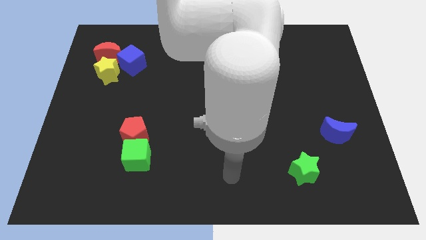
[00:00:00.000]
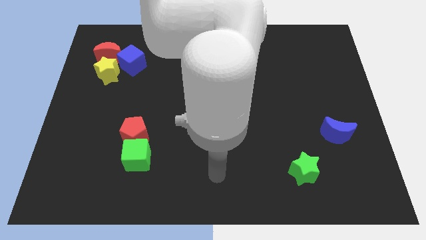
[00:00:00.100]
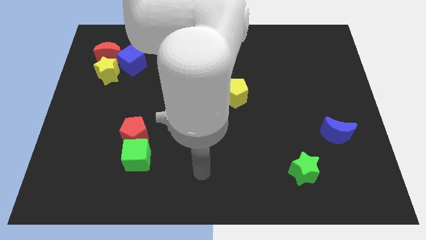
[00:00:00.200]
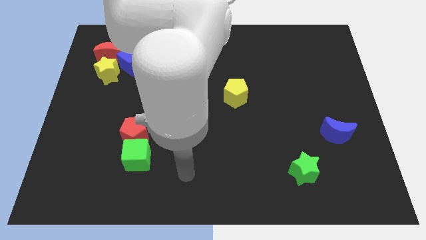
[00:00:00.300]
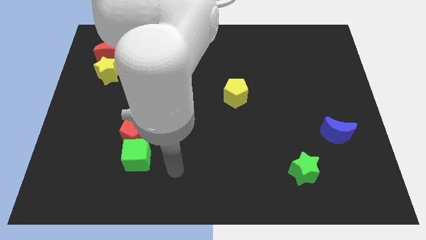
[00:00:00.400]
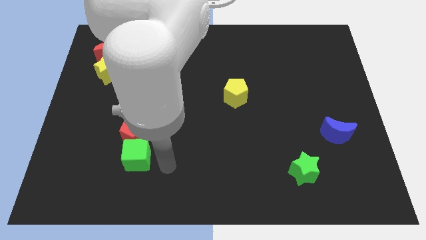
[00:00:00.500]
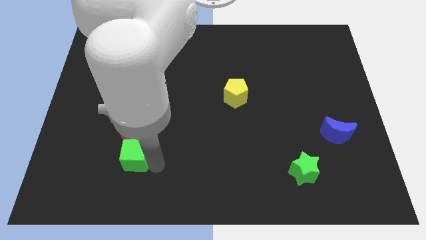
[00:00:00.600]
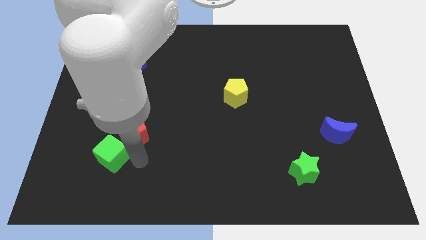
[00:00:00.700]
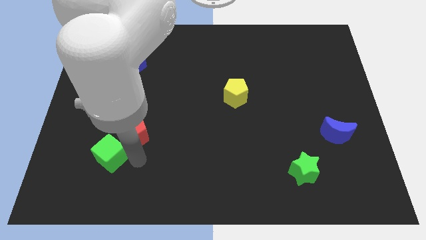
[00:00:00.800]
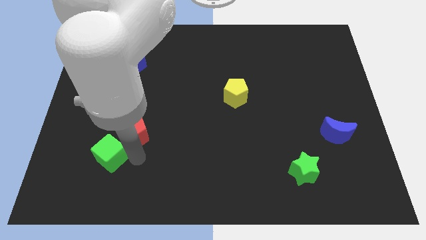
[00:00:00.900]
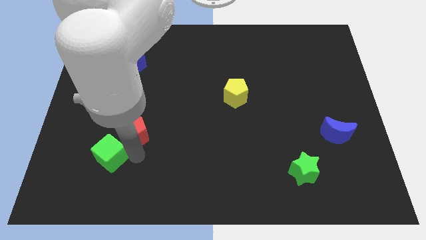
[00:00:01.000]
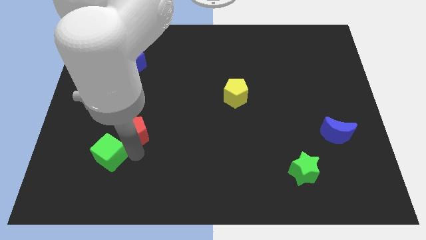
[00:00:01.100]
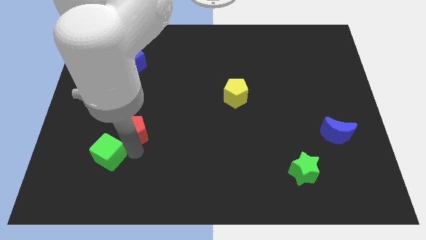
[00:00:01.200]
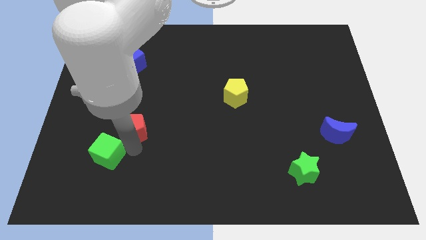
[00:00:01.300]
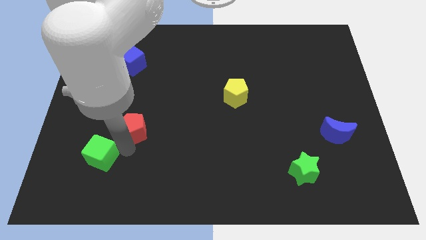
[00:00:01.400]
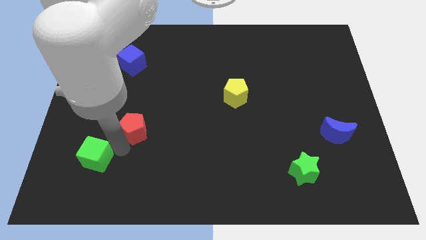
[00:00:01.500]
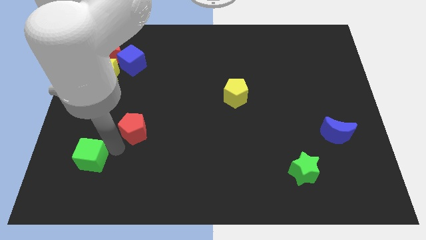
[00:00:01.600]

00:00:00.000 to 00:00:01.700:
separate the red pentagon from the green cube

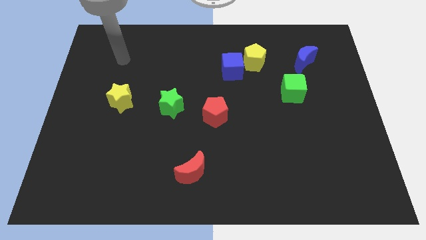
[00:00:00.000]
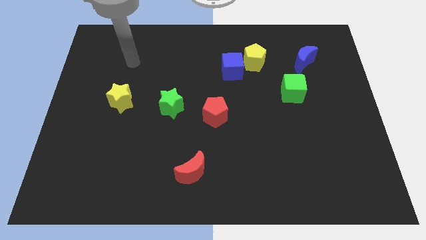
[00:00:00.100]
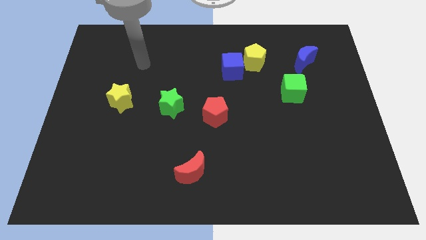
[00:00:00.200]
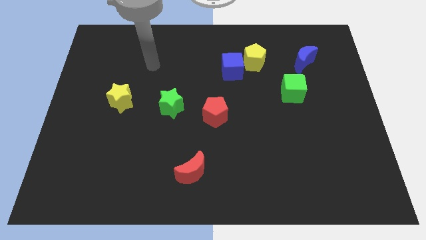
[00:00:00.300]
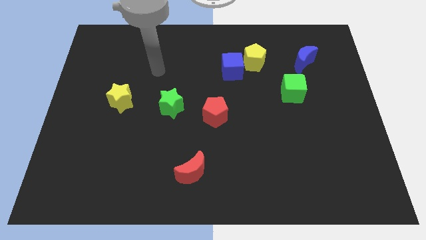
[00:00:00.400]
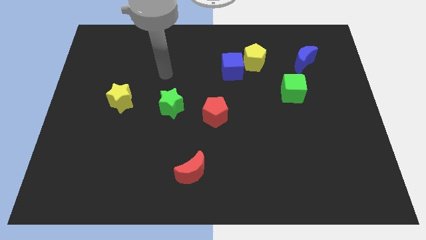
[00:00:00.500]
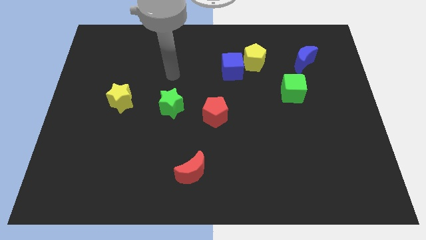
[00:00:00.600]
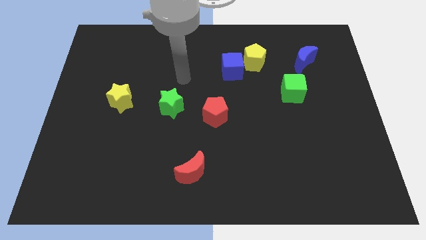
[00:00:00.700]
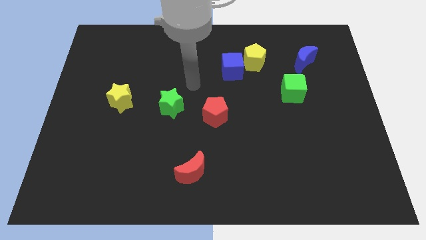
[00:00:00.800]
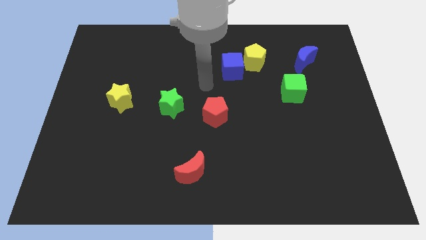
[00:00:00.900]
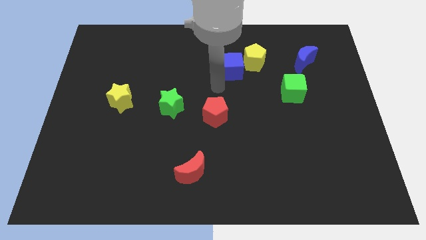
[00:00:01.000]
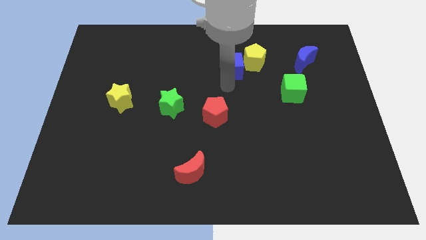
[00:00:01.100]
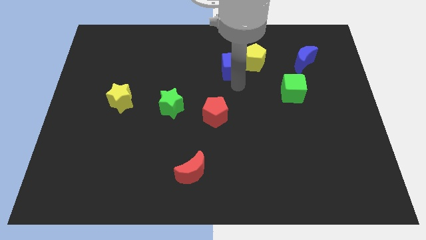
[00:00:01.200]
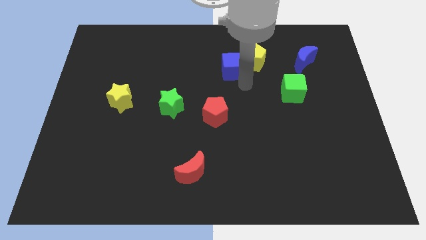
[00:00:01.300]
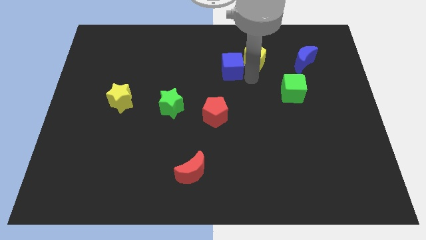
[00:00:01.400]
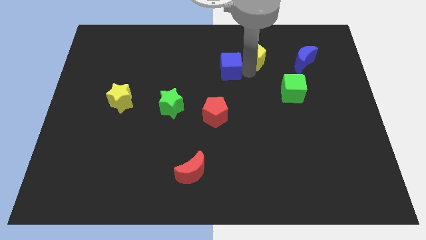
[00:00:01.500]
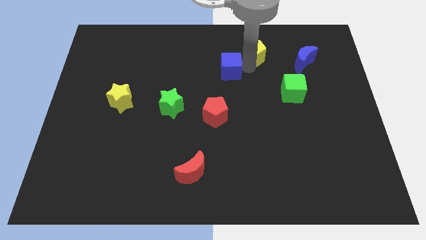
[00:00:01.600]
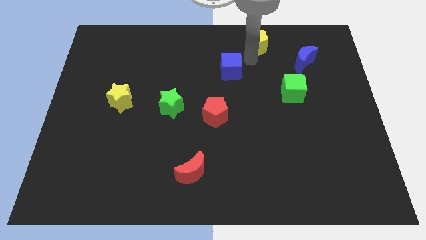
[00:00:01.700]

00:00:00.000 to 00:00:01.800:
move the blue cube away from the yellow pentagon

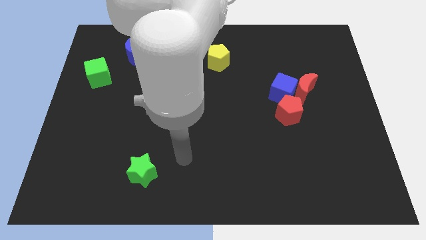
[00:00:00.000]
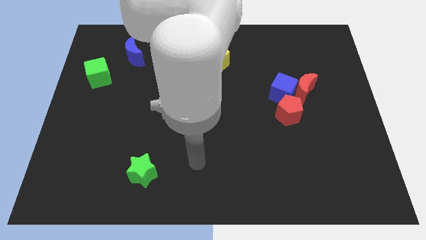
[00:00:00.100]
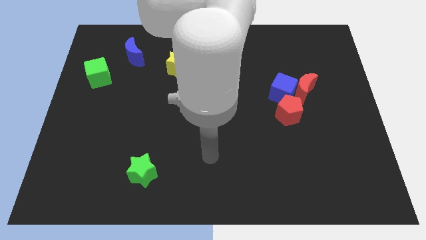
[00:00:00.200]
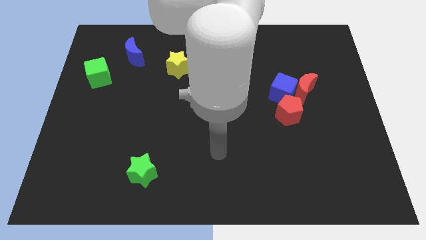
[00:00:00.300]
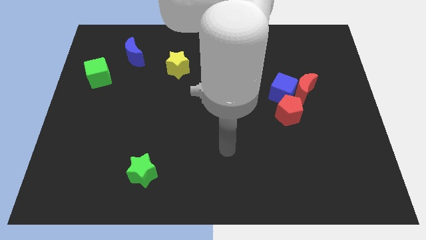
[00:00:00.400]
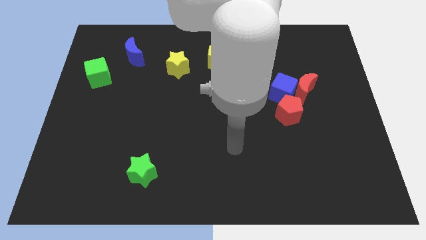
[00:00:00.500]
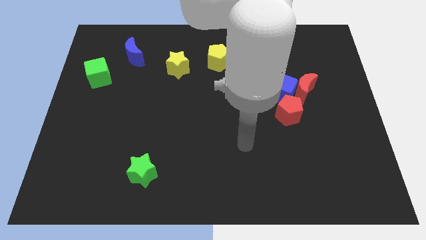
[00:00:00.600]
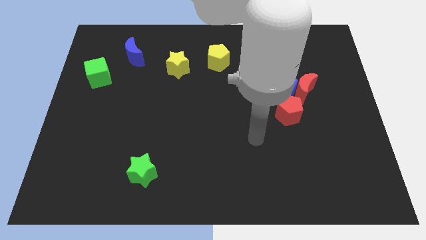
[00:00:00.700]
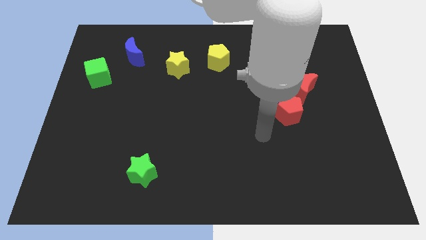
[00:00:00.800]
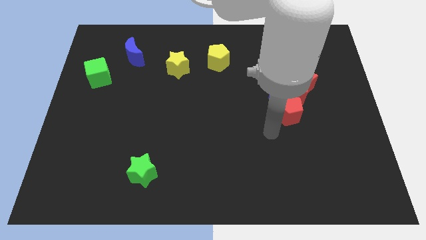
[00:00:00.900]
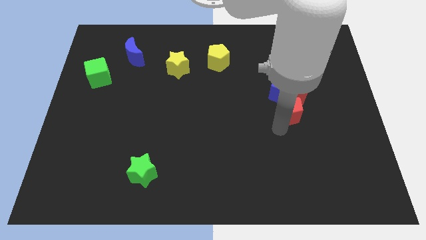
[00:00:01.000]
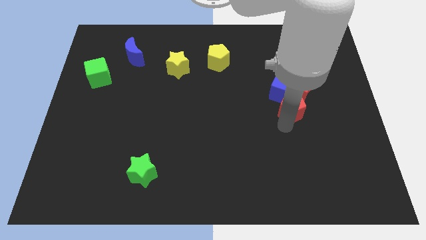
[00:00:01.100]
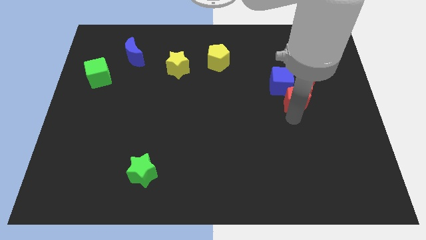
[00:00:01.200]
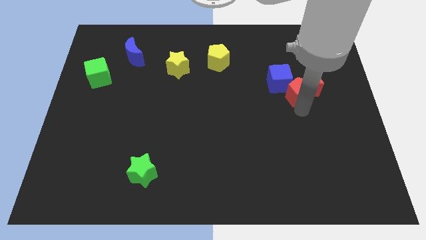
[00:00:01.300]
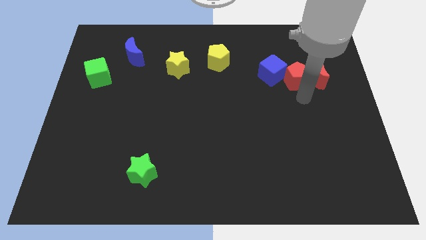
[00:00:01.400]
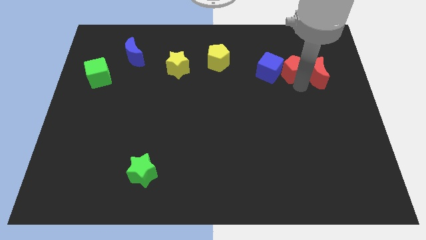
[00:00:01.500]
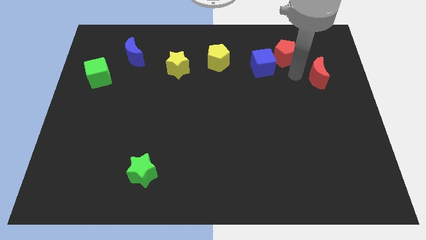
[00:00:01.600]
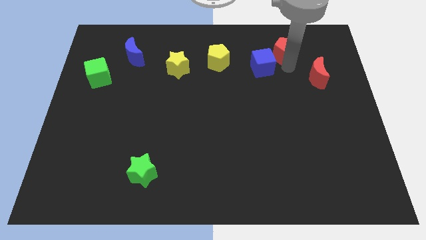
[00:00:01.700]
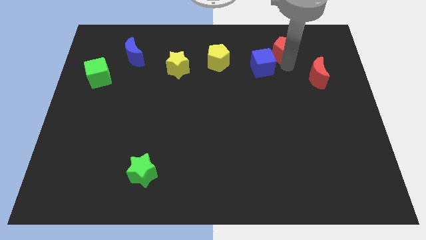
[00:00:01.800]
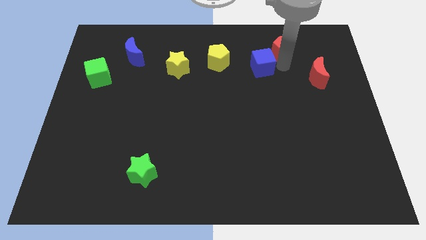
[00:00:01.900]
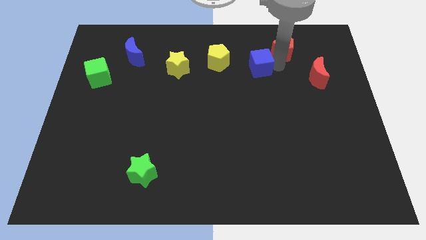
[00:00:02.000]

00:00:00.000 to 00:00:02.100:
separate the blue cube from the red moon and red pentagon

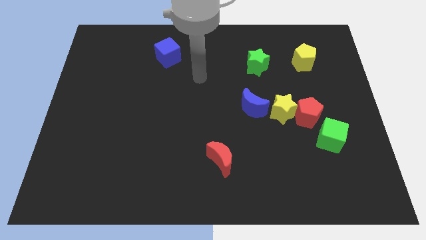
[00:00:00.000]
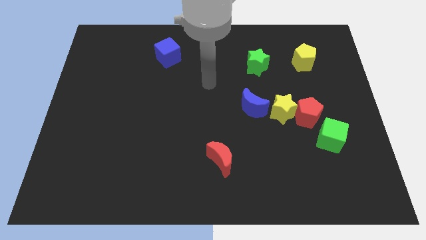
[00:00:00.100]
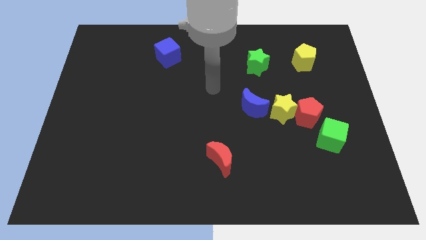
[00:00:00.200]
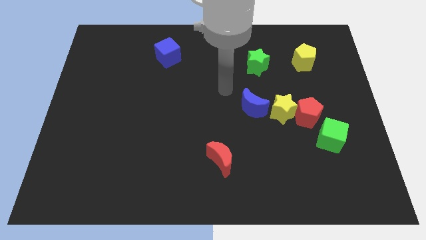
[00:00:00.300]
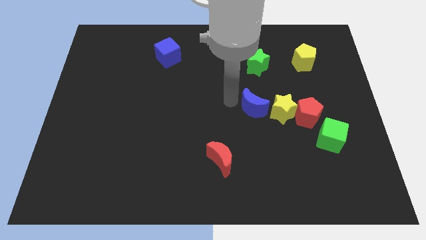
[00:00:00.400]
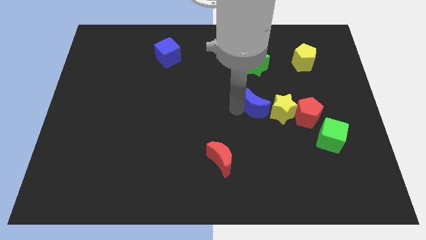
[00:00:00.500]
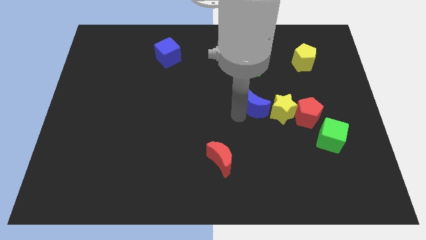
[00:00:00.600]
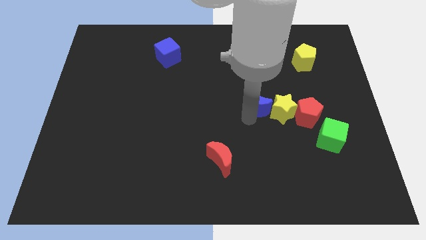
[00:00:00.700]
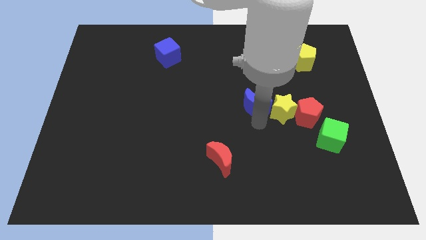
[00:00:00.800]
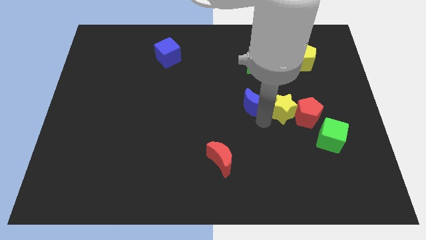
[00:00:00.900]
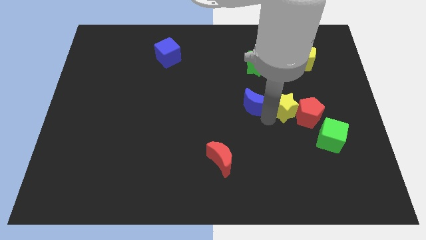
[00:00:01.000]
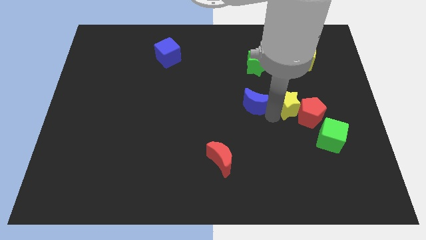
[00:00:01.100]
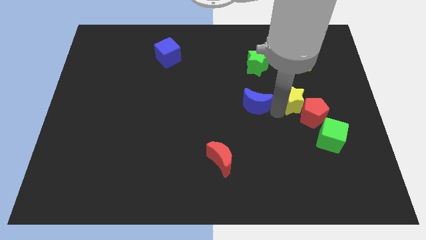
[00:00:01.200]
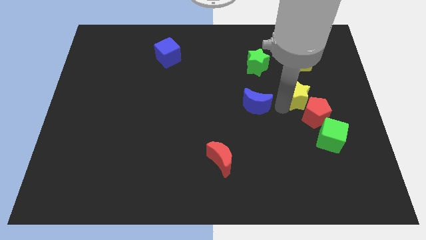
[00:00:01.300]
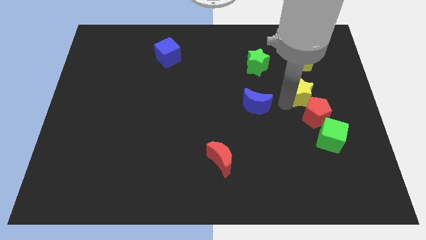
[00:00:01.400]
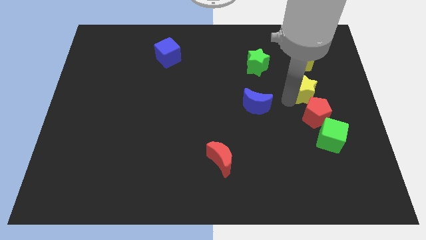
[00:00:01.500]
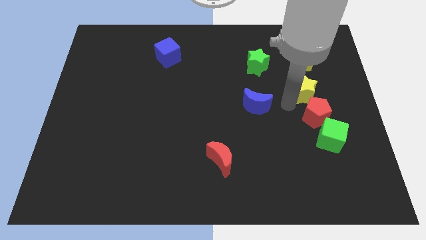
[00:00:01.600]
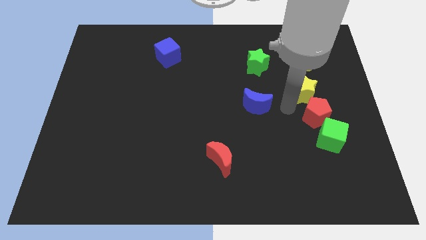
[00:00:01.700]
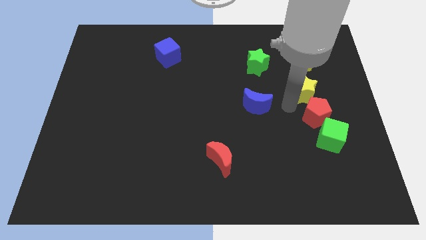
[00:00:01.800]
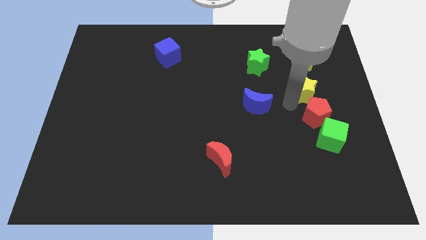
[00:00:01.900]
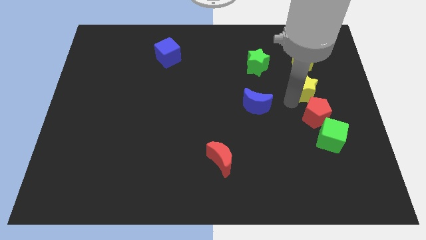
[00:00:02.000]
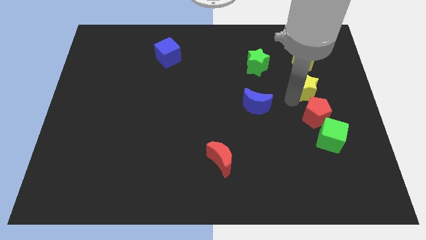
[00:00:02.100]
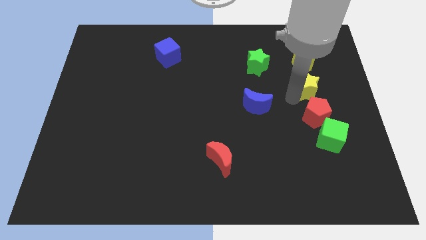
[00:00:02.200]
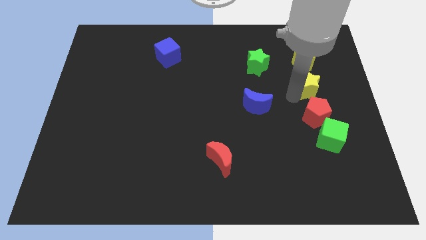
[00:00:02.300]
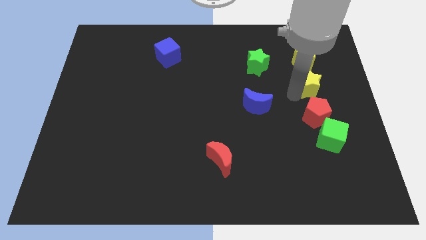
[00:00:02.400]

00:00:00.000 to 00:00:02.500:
pull the yellow star apart from the red pentagon and blue moon

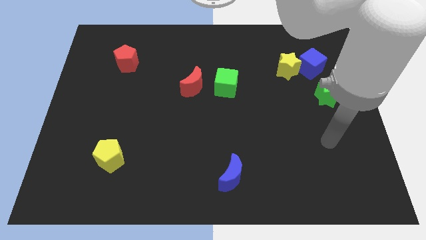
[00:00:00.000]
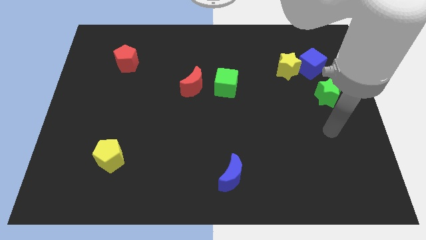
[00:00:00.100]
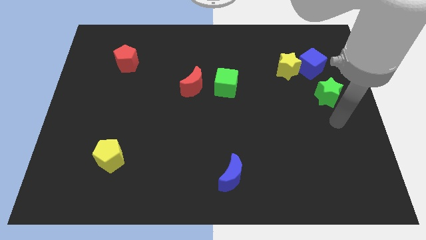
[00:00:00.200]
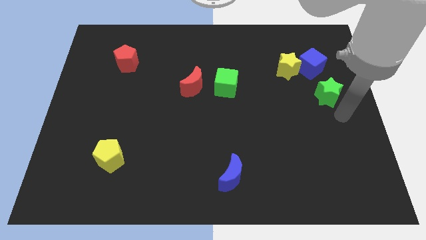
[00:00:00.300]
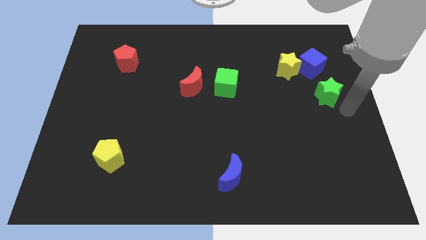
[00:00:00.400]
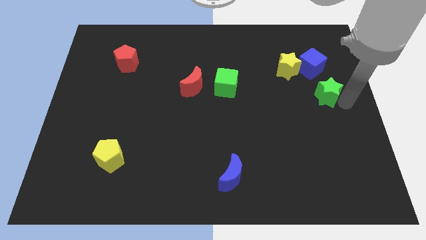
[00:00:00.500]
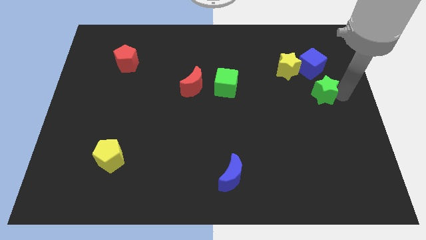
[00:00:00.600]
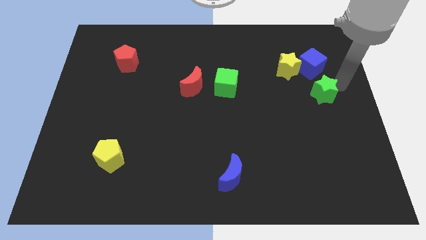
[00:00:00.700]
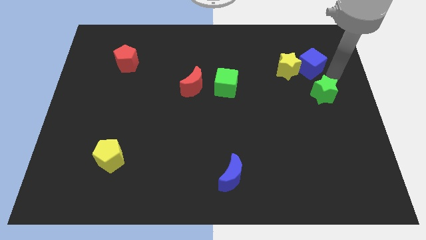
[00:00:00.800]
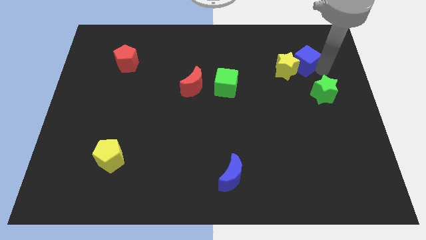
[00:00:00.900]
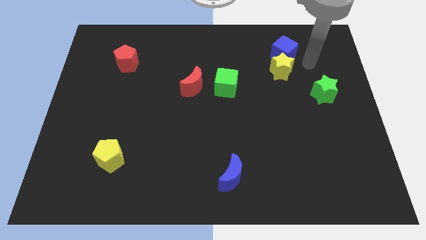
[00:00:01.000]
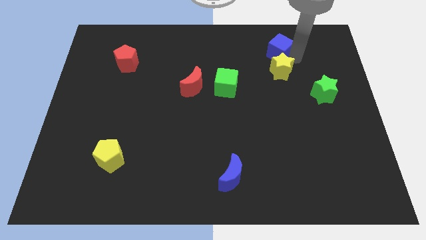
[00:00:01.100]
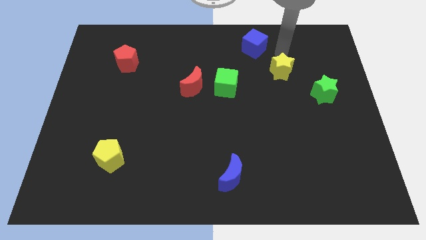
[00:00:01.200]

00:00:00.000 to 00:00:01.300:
move the yellow star away from the blue cube
